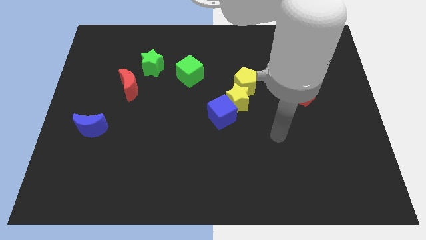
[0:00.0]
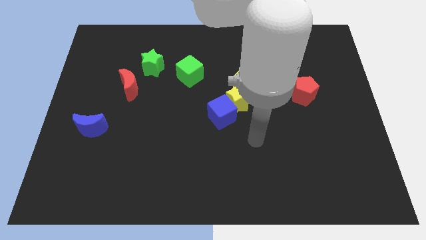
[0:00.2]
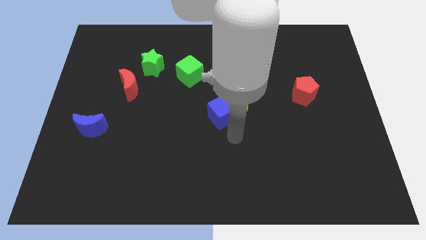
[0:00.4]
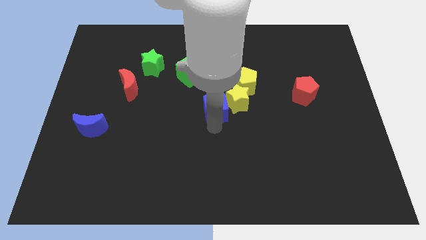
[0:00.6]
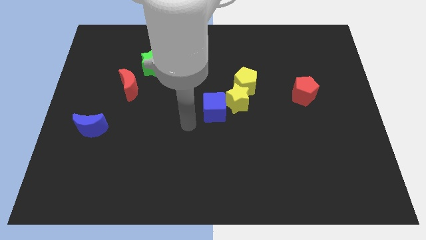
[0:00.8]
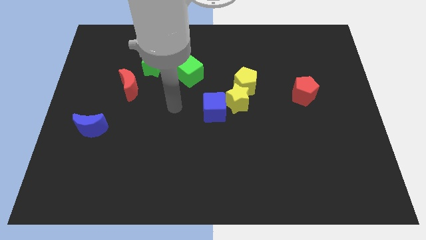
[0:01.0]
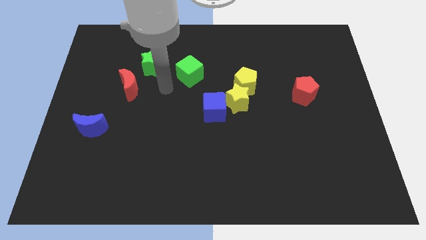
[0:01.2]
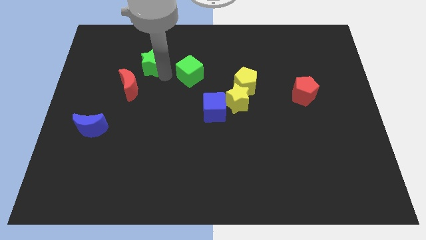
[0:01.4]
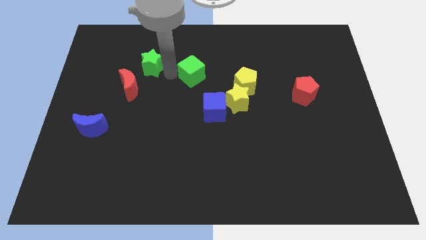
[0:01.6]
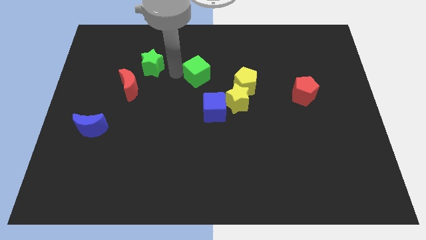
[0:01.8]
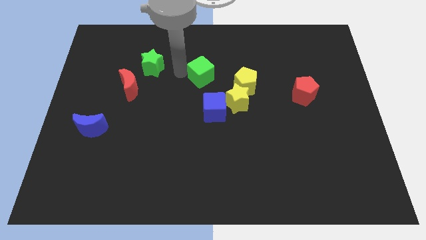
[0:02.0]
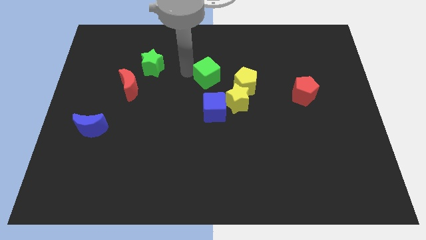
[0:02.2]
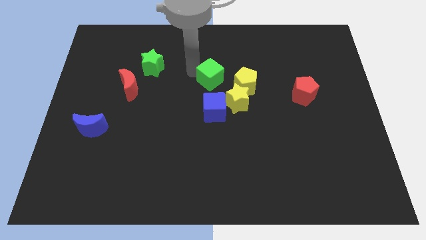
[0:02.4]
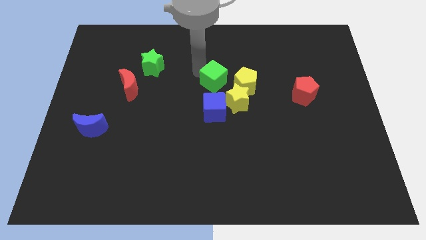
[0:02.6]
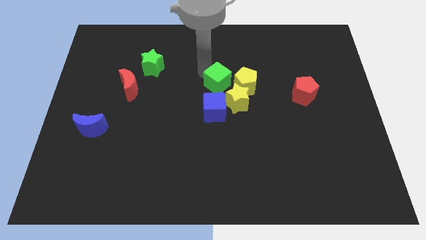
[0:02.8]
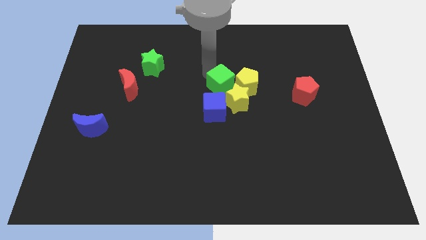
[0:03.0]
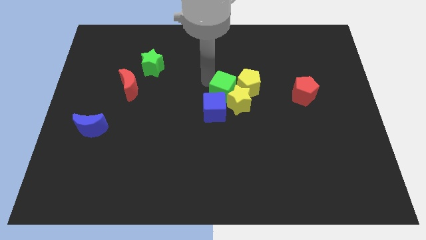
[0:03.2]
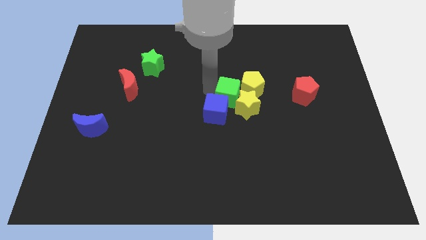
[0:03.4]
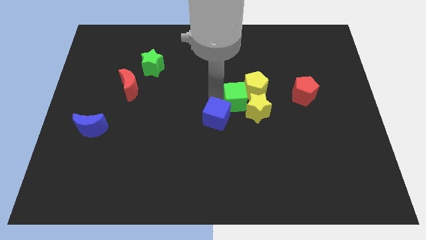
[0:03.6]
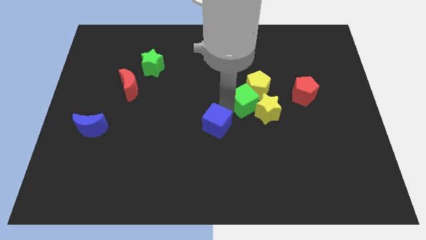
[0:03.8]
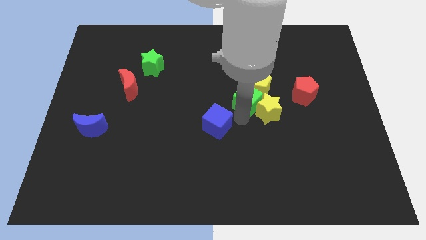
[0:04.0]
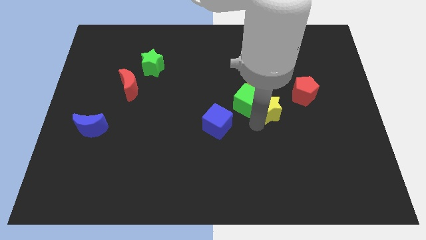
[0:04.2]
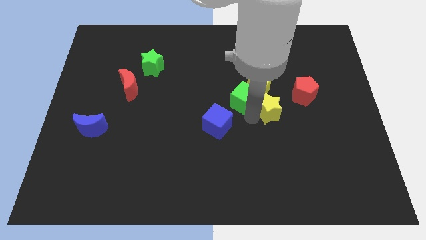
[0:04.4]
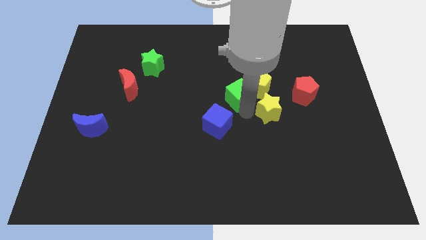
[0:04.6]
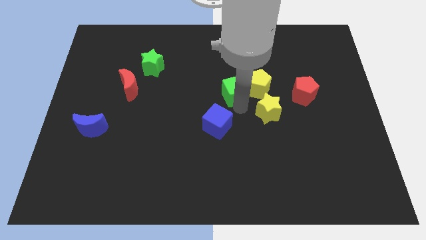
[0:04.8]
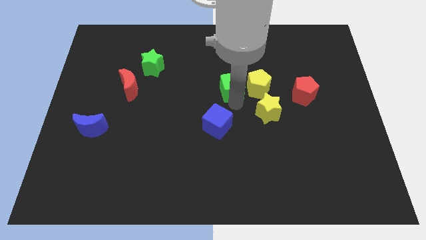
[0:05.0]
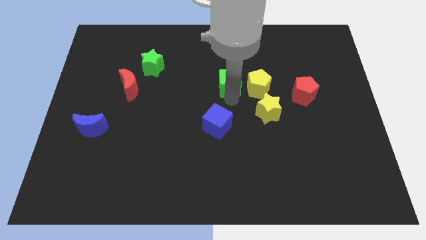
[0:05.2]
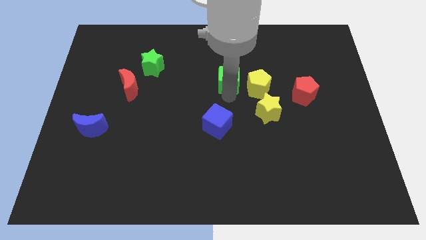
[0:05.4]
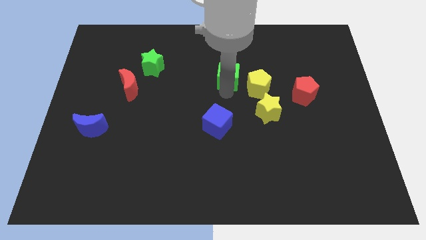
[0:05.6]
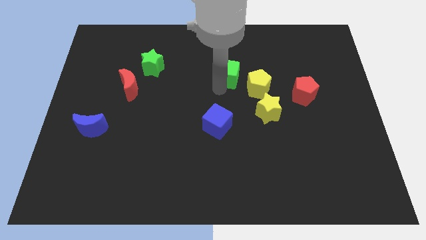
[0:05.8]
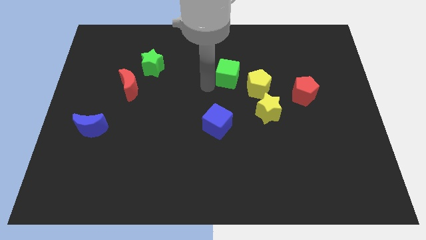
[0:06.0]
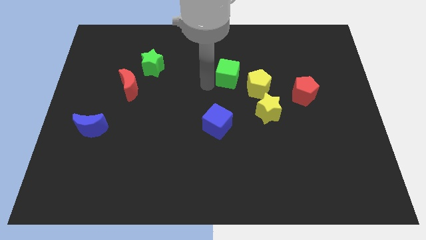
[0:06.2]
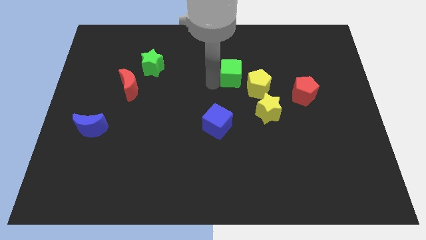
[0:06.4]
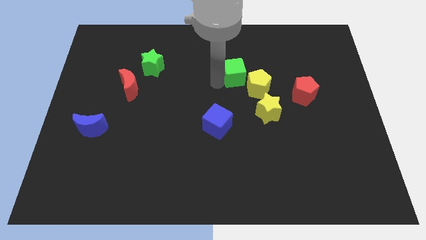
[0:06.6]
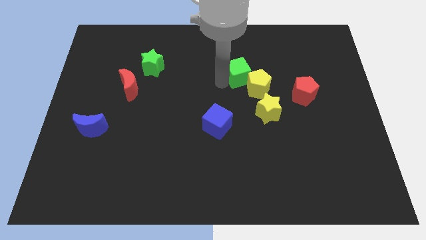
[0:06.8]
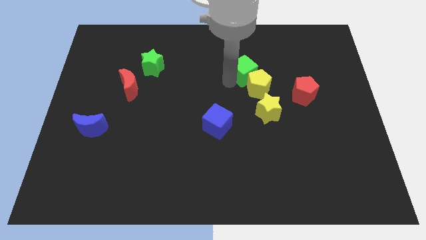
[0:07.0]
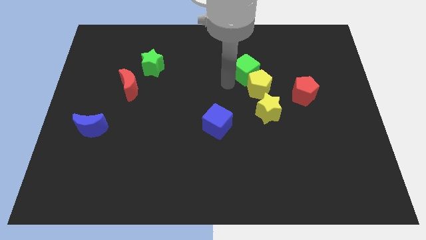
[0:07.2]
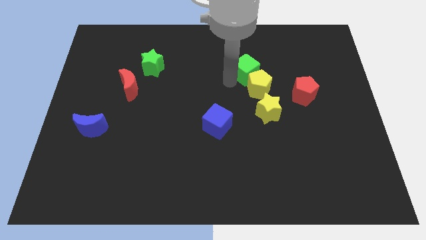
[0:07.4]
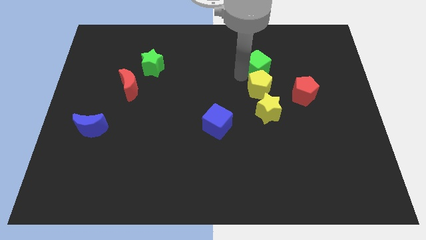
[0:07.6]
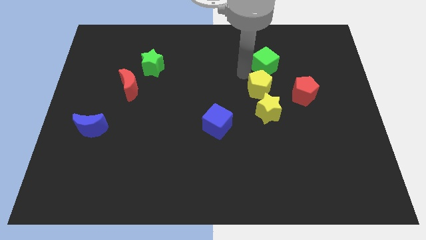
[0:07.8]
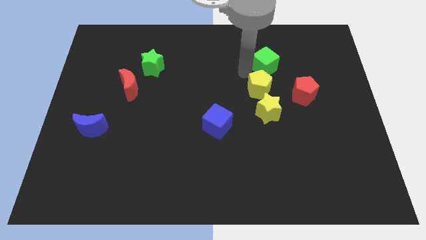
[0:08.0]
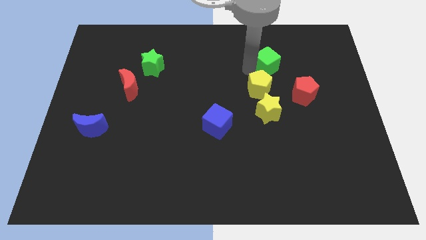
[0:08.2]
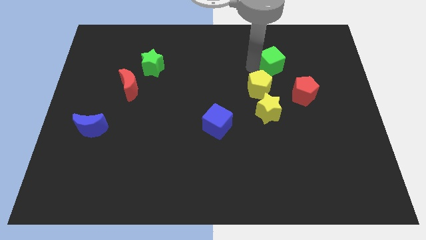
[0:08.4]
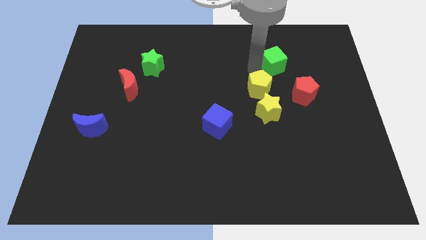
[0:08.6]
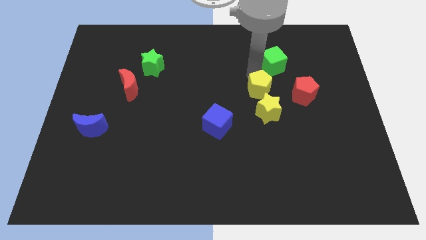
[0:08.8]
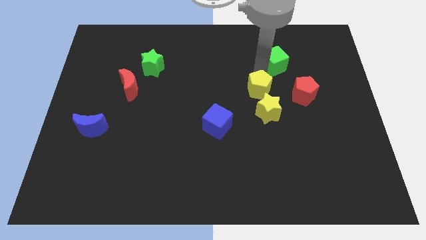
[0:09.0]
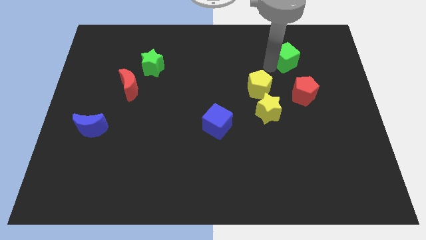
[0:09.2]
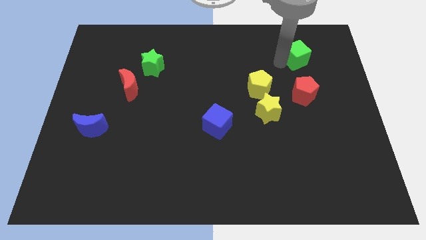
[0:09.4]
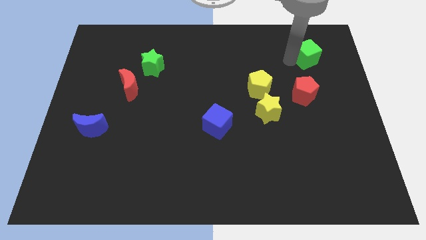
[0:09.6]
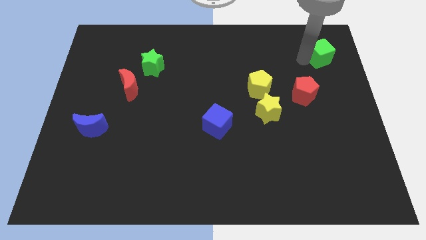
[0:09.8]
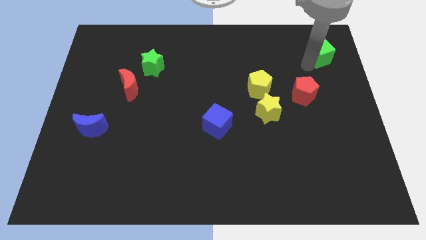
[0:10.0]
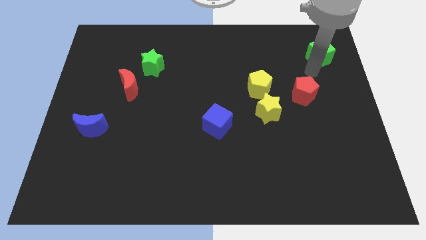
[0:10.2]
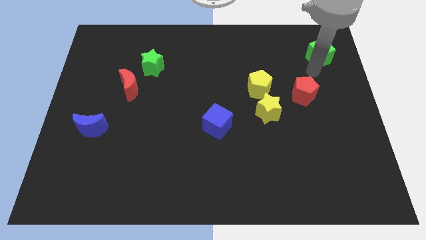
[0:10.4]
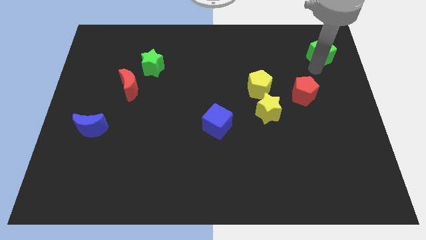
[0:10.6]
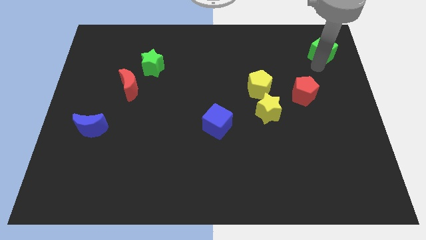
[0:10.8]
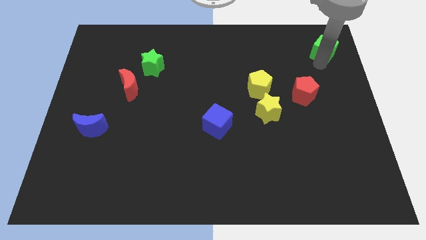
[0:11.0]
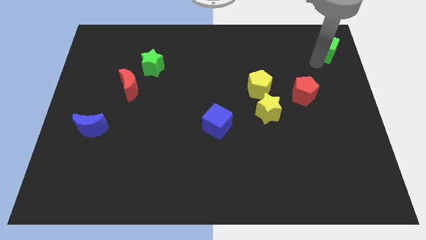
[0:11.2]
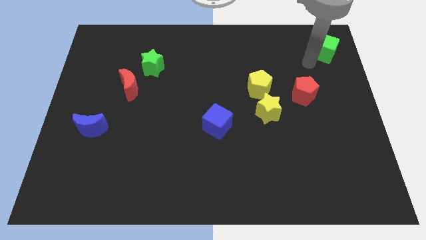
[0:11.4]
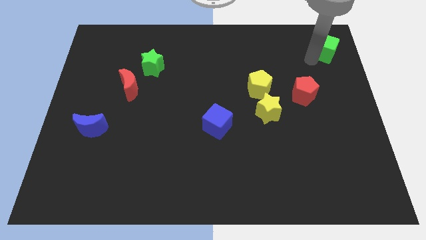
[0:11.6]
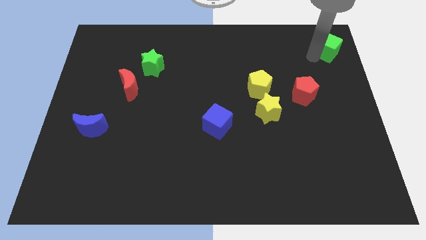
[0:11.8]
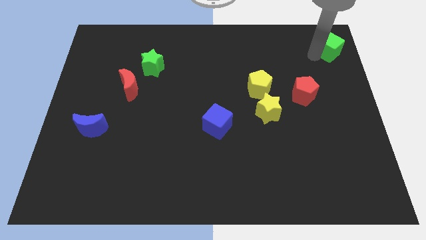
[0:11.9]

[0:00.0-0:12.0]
move the green cube to the top right of the board
